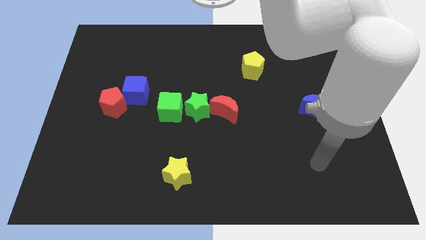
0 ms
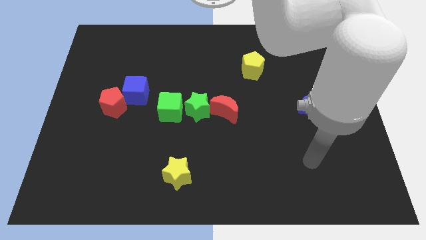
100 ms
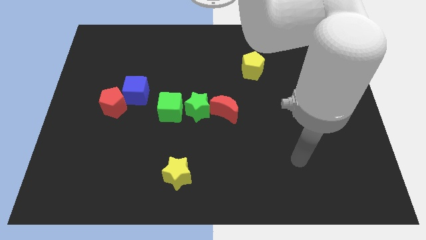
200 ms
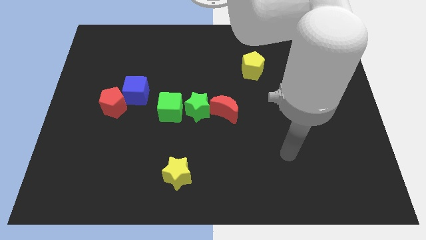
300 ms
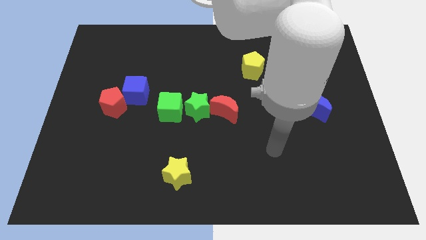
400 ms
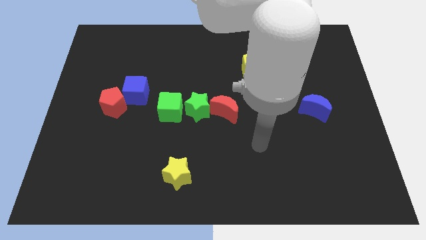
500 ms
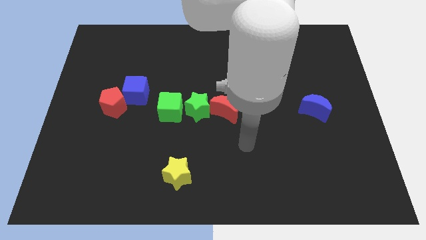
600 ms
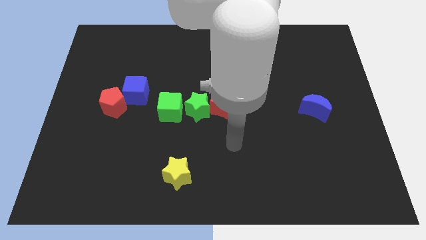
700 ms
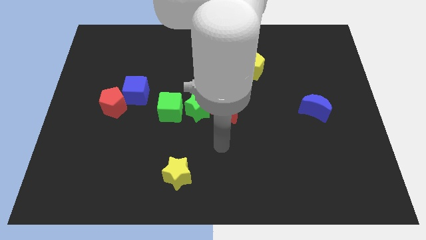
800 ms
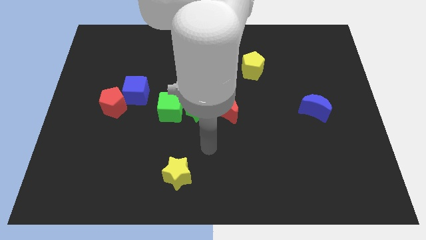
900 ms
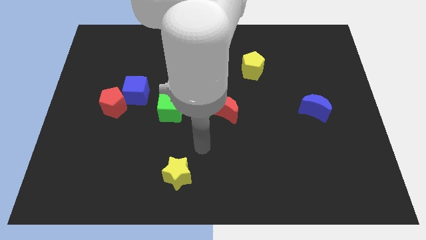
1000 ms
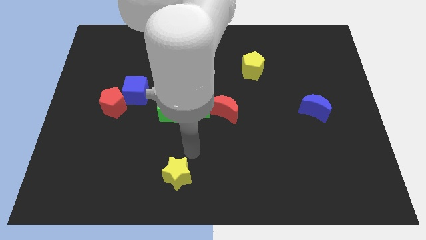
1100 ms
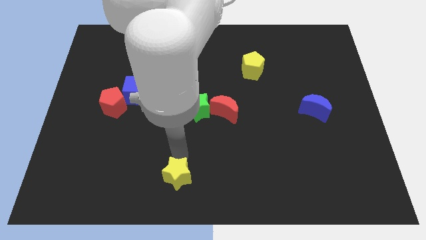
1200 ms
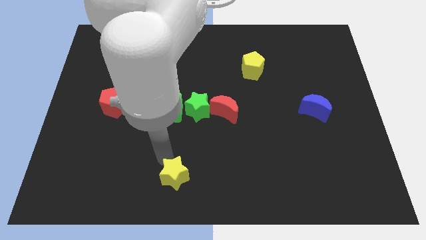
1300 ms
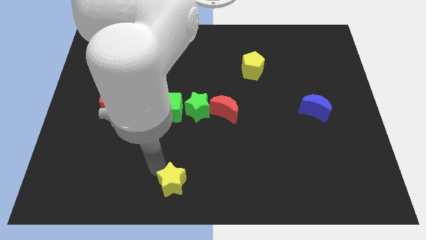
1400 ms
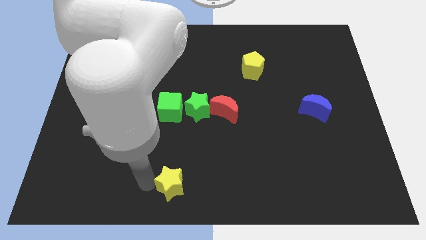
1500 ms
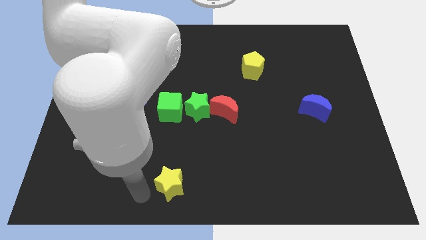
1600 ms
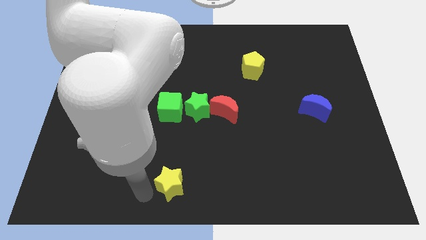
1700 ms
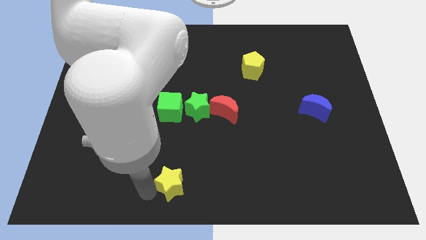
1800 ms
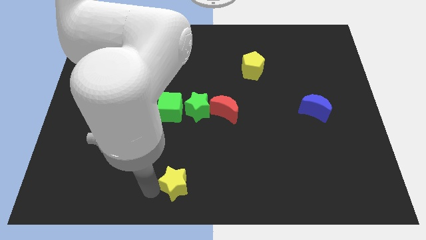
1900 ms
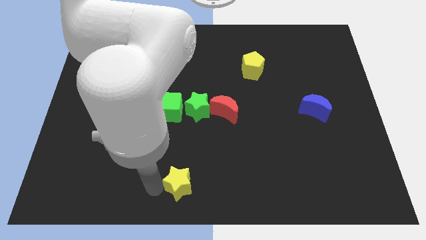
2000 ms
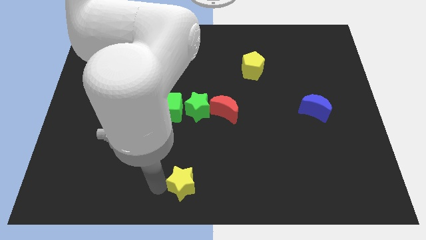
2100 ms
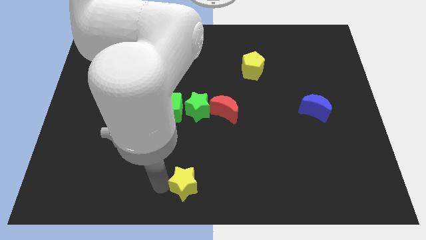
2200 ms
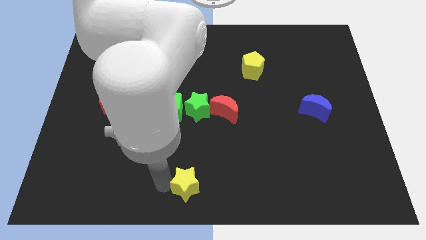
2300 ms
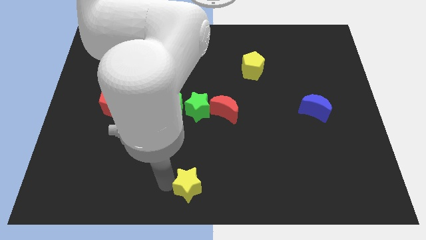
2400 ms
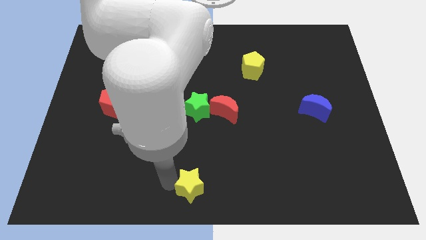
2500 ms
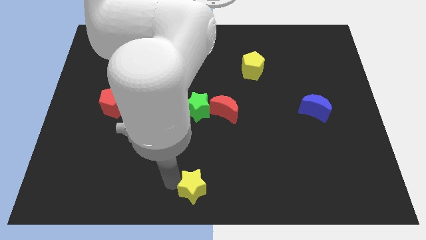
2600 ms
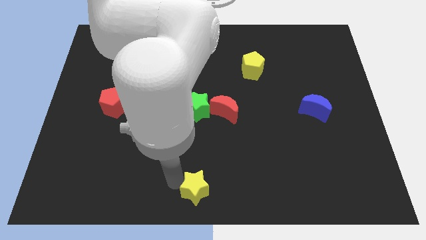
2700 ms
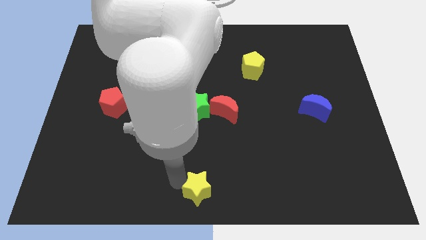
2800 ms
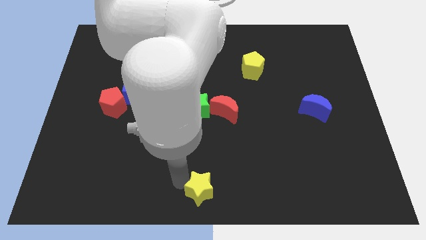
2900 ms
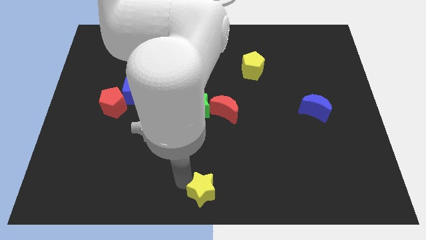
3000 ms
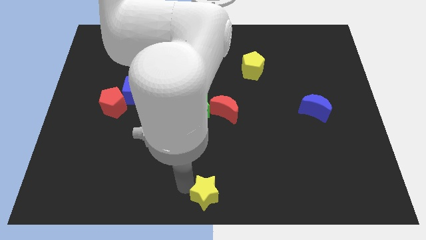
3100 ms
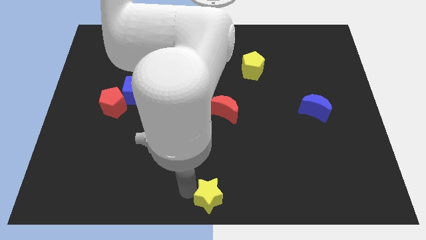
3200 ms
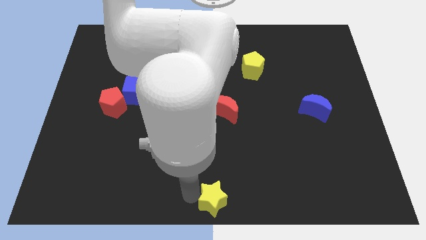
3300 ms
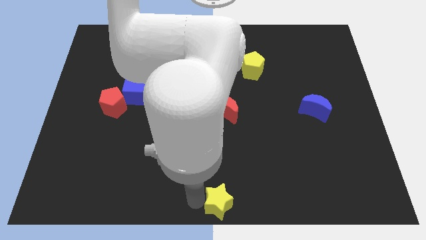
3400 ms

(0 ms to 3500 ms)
slightly push the yellow star right

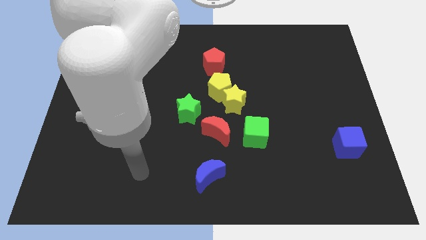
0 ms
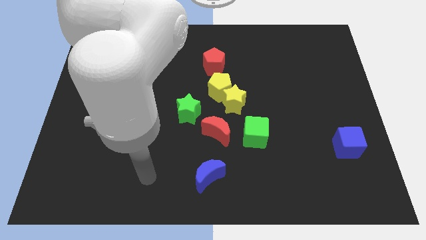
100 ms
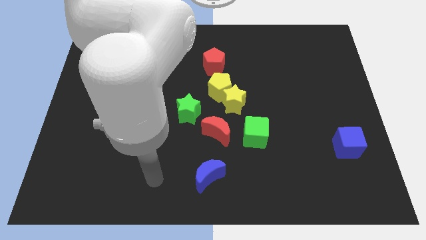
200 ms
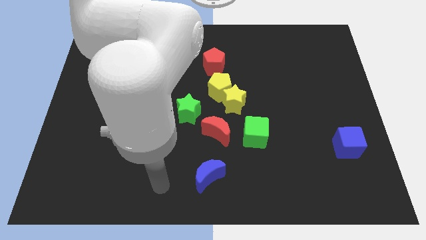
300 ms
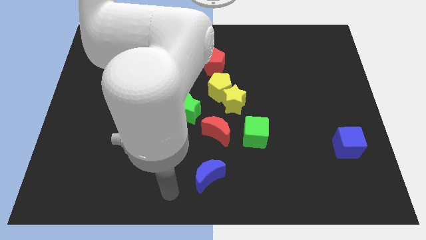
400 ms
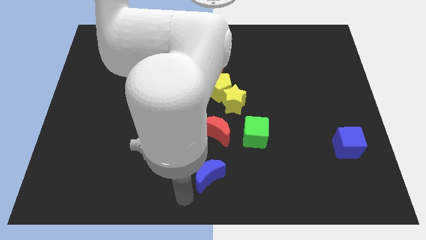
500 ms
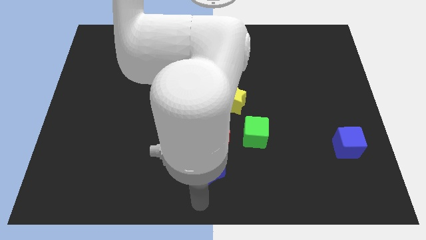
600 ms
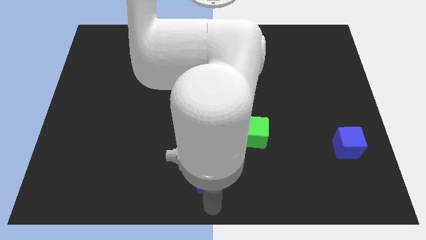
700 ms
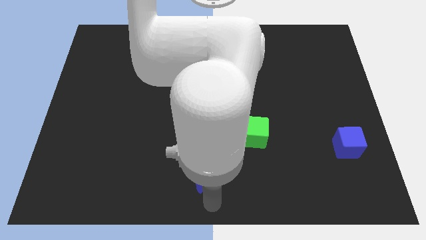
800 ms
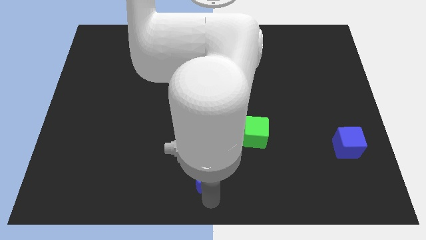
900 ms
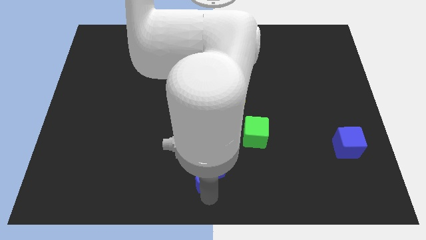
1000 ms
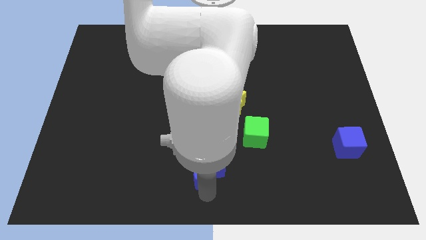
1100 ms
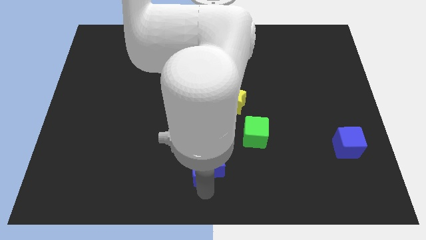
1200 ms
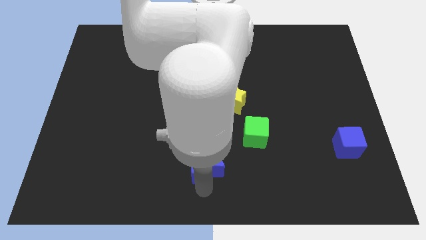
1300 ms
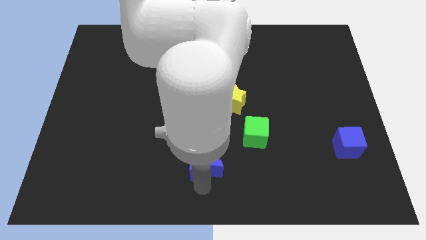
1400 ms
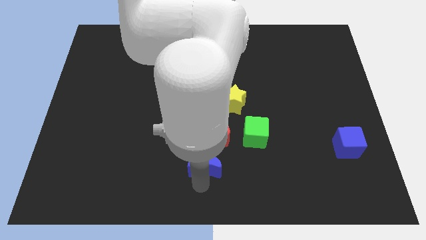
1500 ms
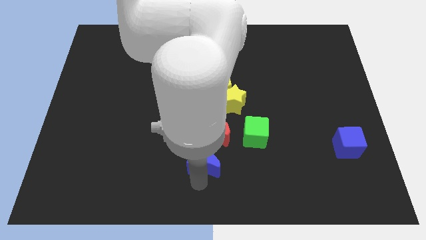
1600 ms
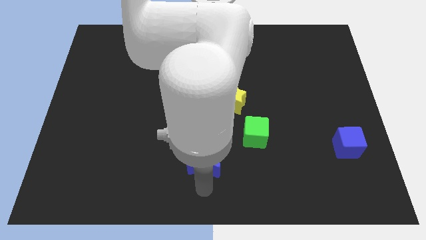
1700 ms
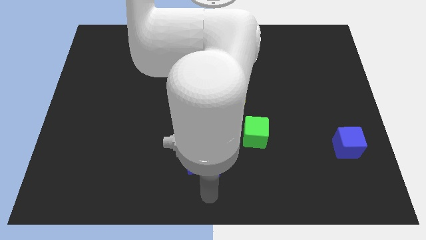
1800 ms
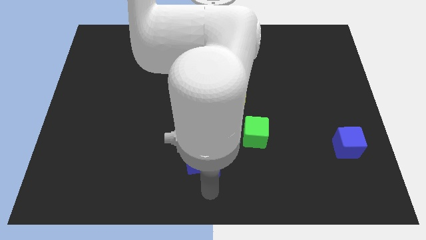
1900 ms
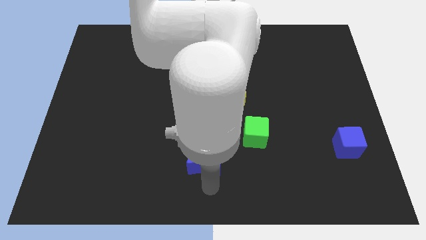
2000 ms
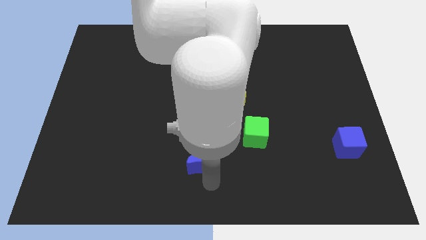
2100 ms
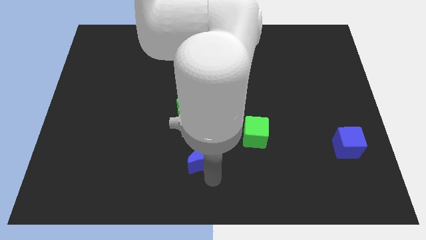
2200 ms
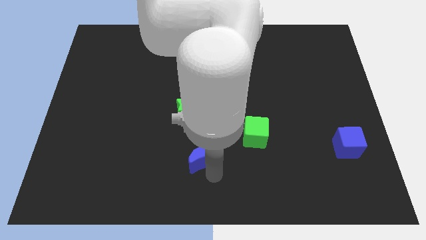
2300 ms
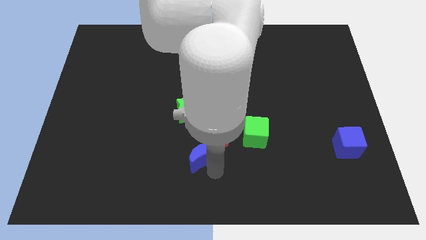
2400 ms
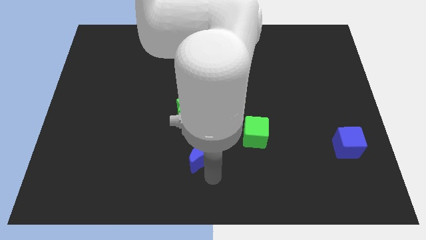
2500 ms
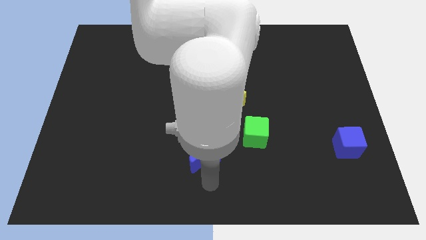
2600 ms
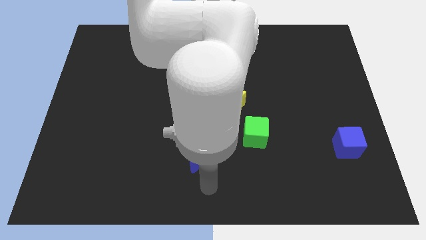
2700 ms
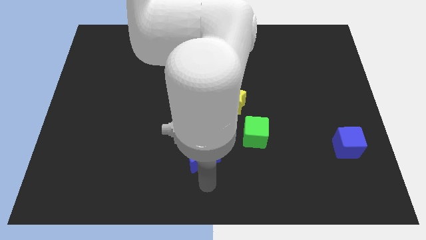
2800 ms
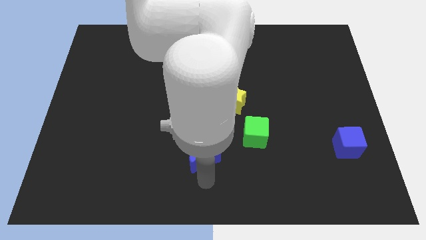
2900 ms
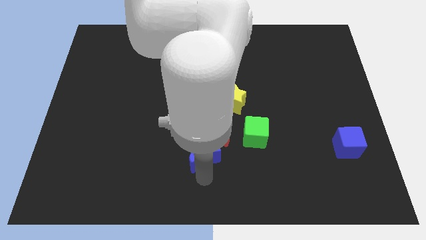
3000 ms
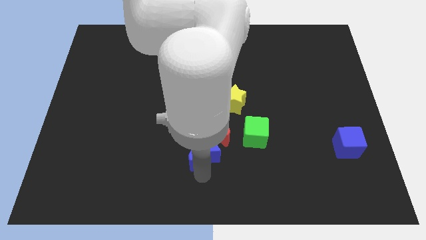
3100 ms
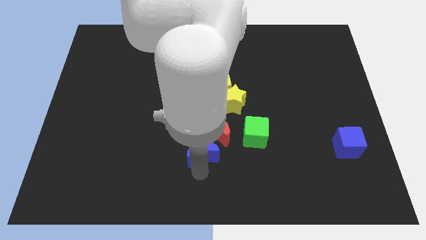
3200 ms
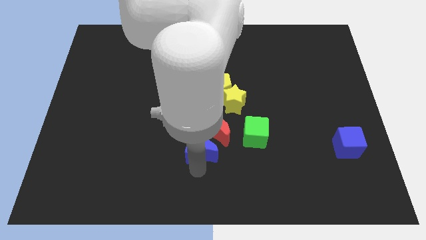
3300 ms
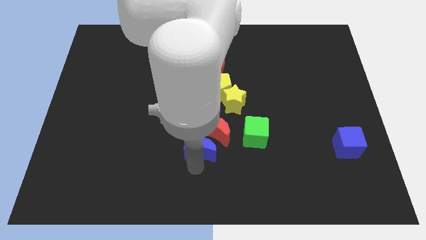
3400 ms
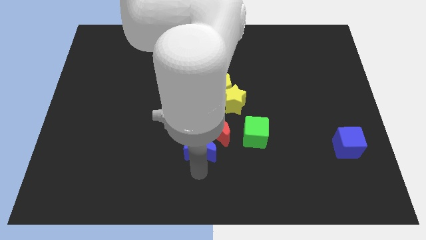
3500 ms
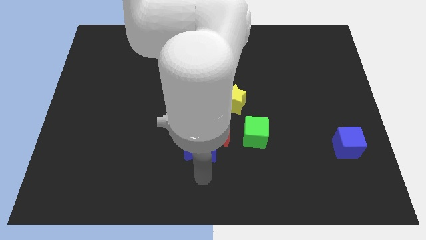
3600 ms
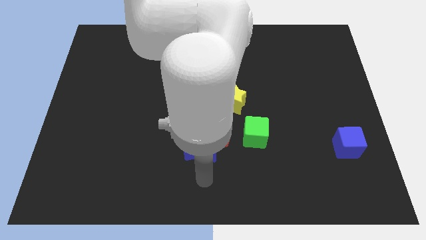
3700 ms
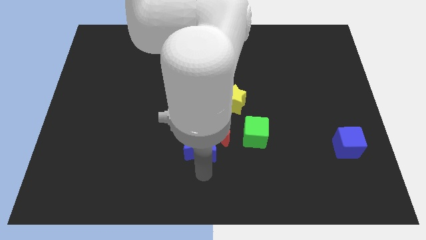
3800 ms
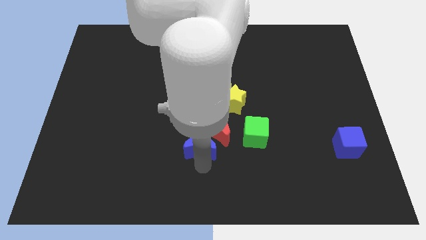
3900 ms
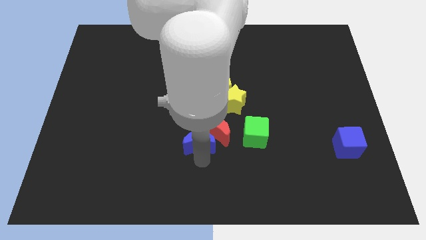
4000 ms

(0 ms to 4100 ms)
move the blue moon upwards a little bit

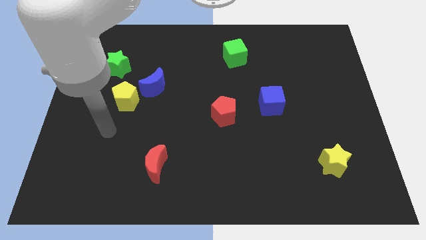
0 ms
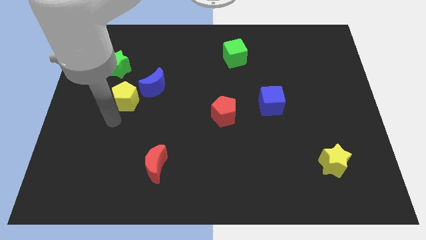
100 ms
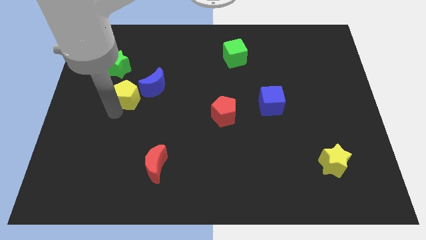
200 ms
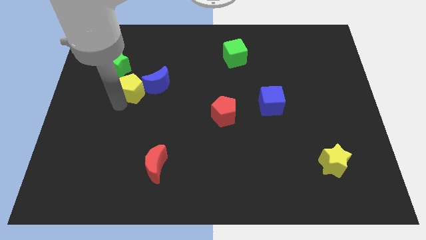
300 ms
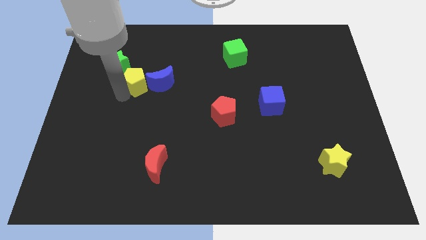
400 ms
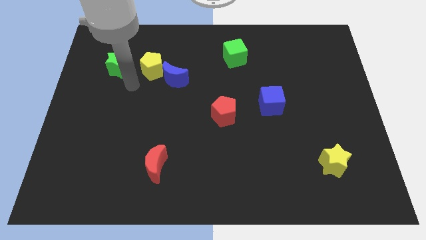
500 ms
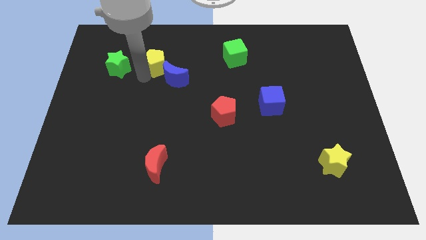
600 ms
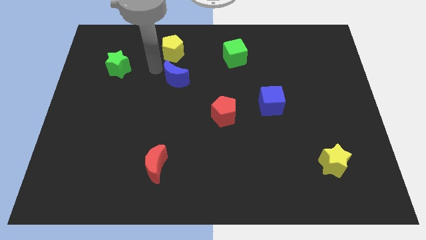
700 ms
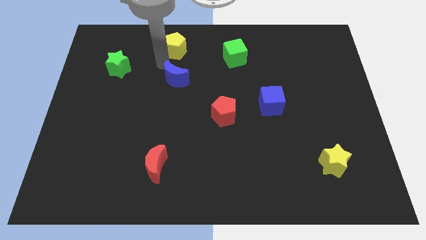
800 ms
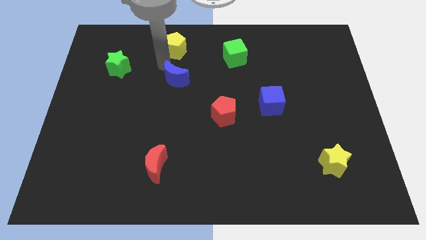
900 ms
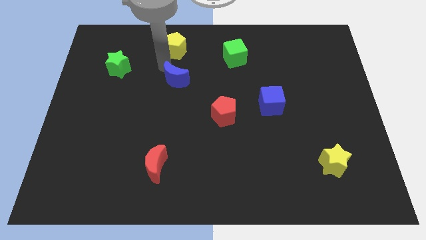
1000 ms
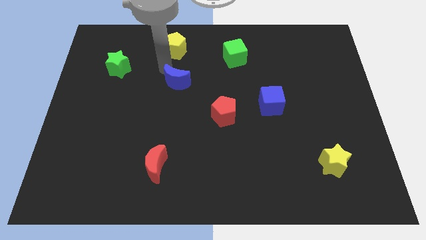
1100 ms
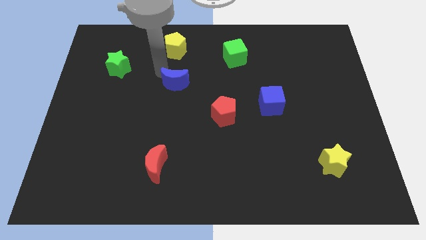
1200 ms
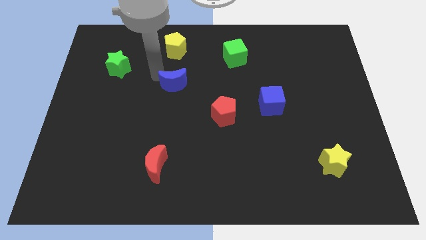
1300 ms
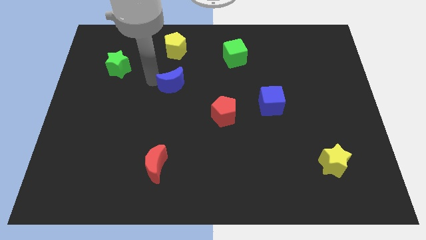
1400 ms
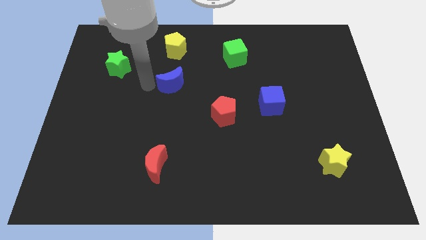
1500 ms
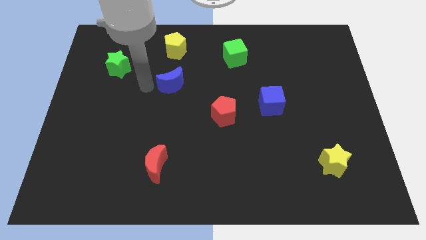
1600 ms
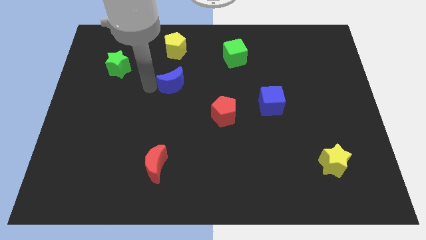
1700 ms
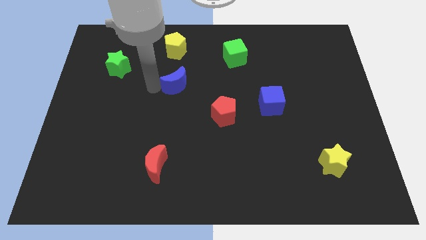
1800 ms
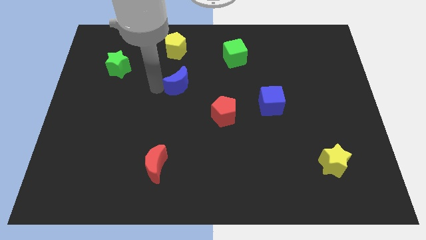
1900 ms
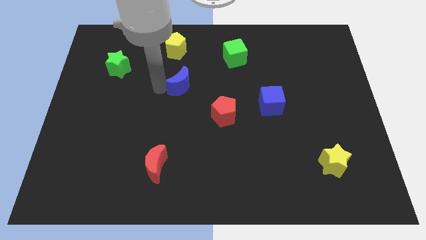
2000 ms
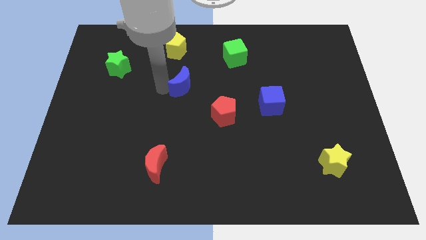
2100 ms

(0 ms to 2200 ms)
slightly push the blue moon right
